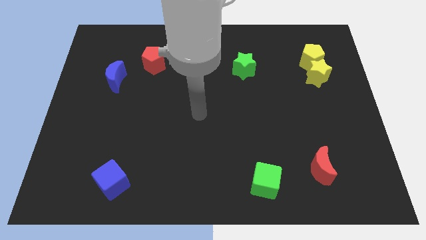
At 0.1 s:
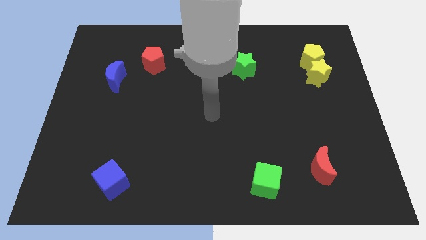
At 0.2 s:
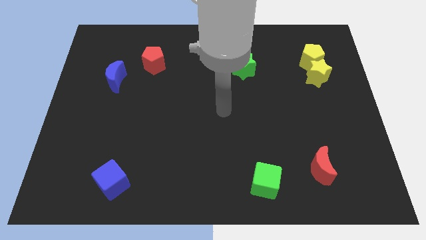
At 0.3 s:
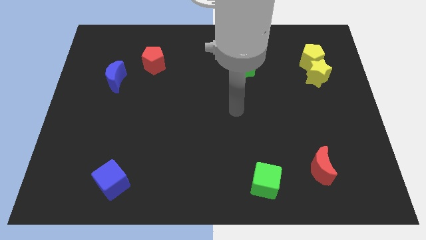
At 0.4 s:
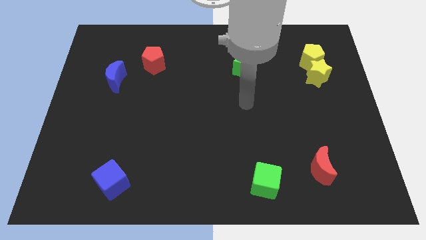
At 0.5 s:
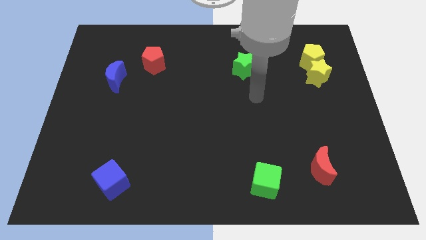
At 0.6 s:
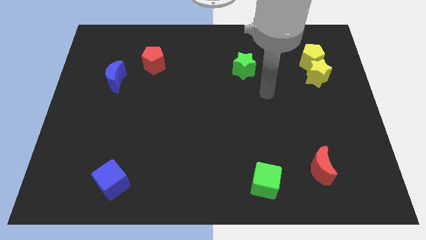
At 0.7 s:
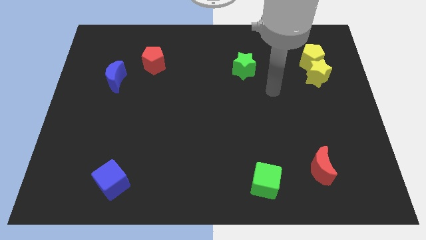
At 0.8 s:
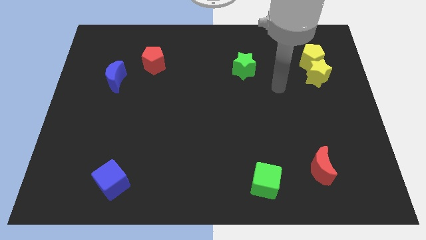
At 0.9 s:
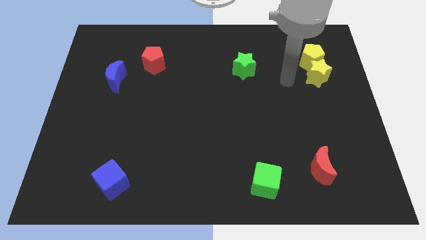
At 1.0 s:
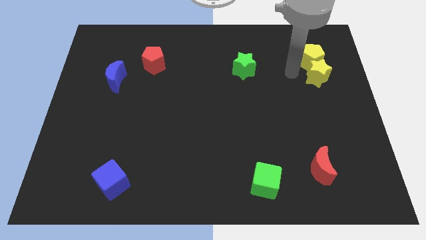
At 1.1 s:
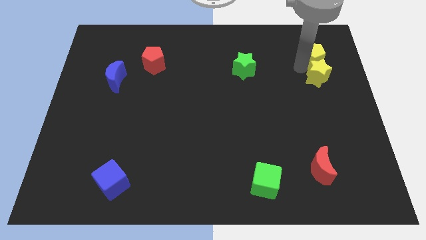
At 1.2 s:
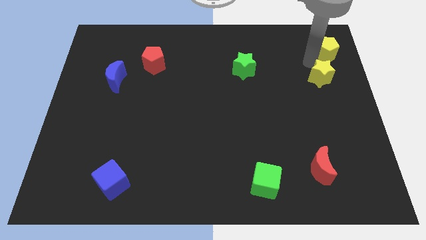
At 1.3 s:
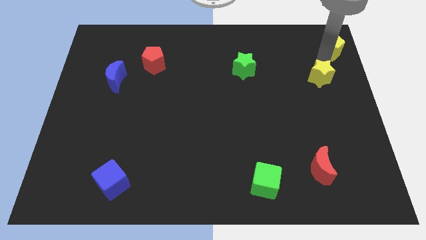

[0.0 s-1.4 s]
pull the yellow star apart from the yellow pentagon

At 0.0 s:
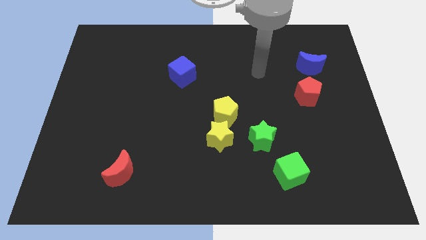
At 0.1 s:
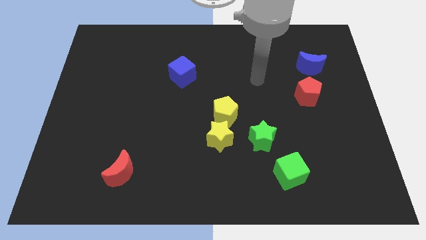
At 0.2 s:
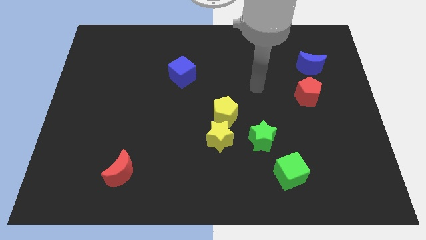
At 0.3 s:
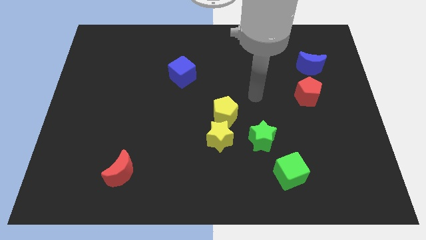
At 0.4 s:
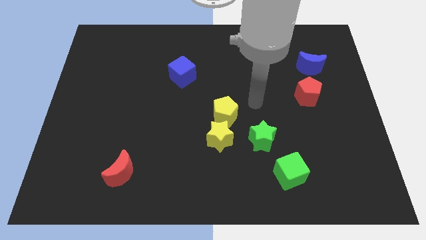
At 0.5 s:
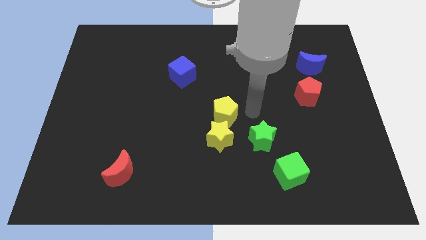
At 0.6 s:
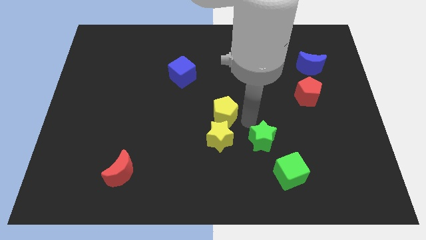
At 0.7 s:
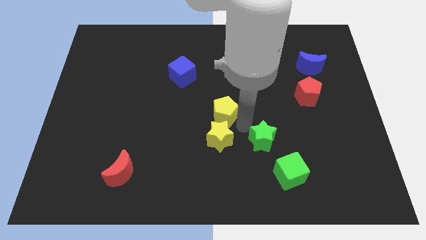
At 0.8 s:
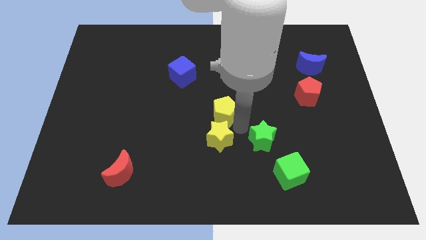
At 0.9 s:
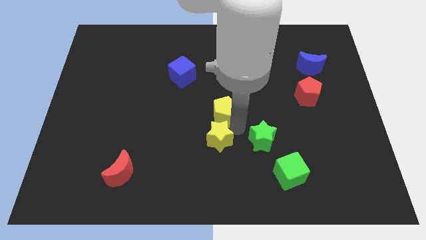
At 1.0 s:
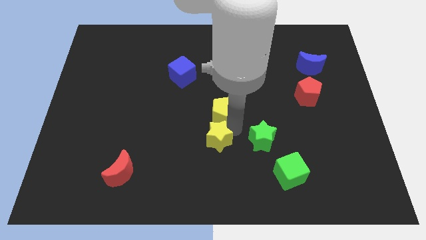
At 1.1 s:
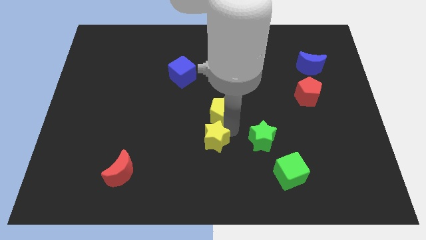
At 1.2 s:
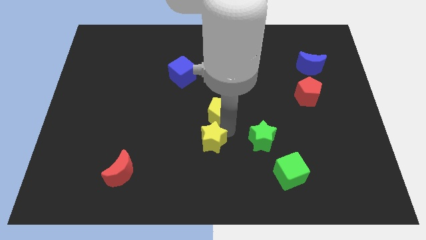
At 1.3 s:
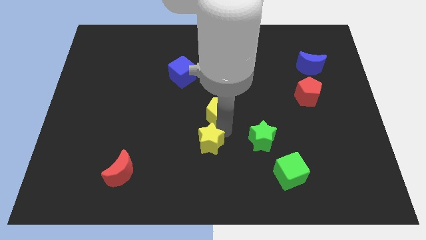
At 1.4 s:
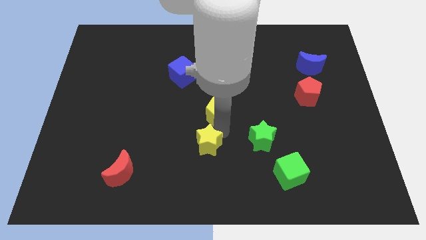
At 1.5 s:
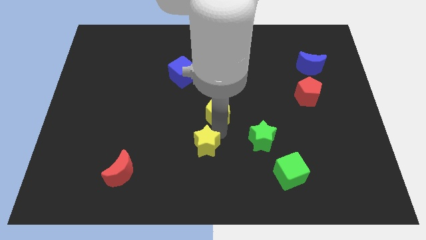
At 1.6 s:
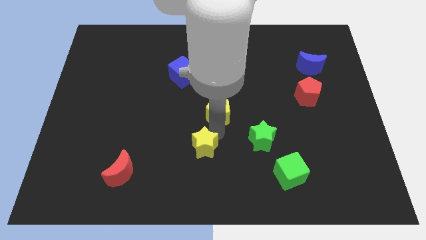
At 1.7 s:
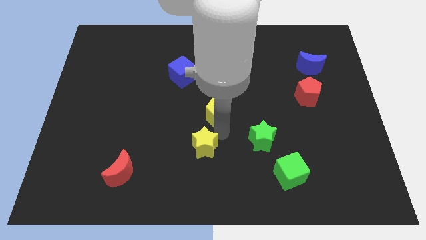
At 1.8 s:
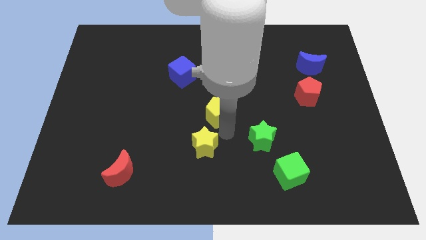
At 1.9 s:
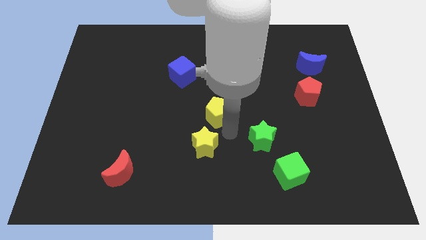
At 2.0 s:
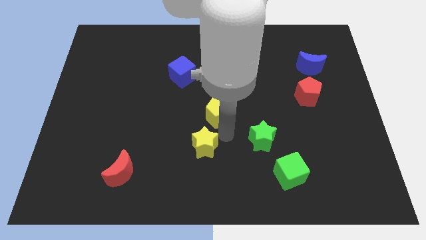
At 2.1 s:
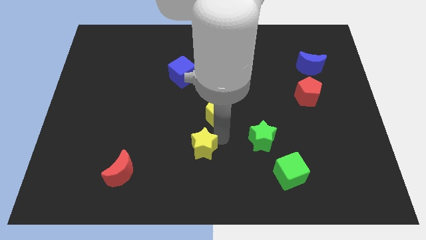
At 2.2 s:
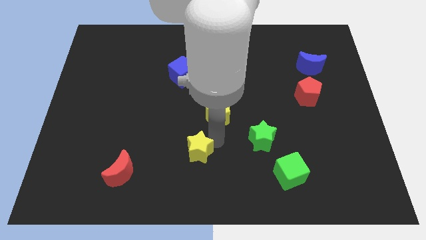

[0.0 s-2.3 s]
separate the yellow star from the yellow pentagon and green star

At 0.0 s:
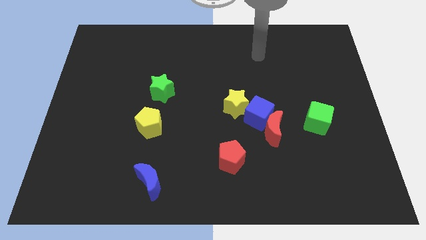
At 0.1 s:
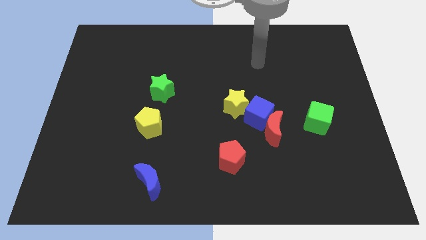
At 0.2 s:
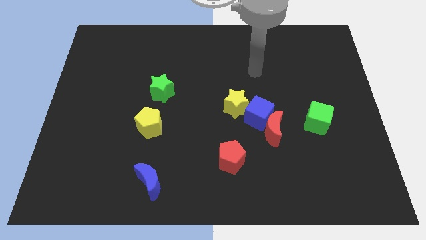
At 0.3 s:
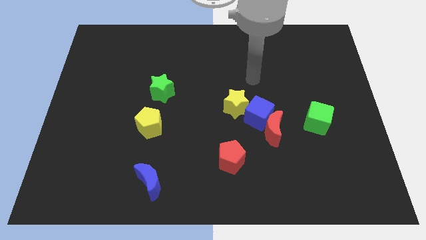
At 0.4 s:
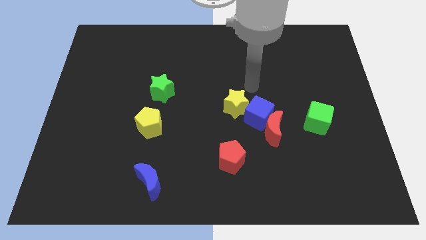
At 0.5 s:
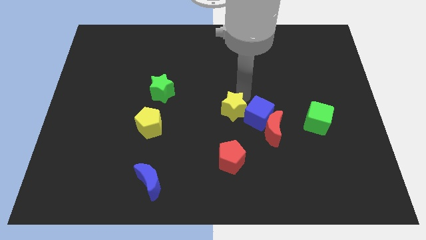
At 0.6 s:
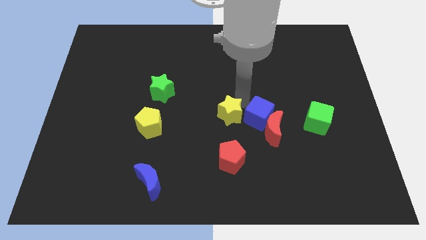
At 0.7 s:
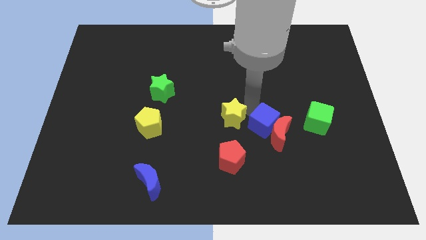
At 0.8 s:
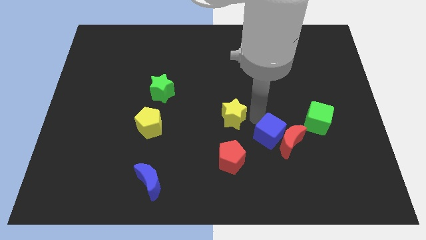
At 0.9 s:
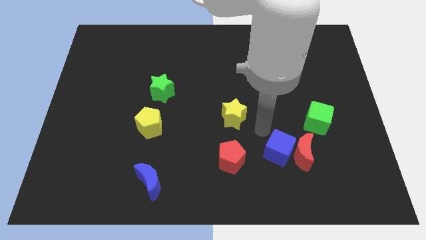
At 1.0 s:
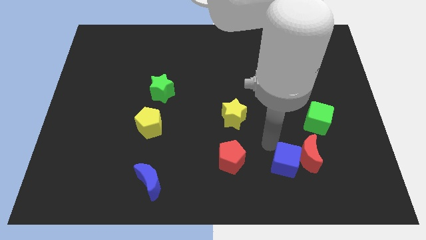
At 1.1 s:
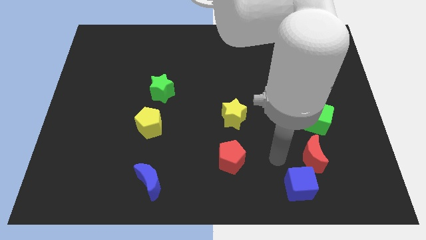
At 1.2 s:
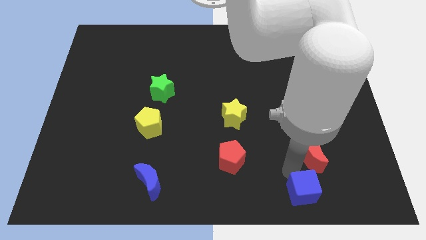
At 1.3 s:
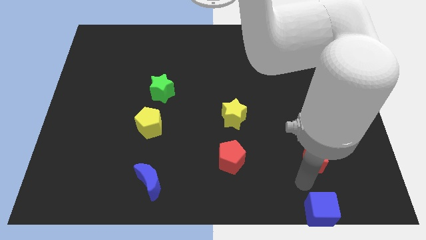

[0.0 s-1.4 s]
pull the red moon apart from the blue cube

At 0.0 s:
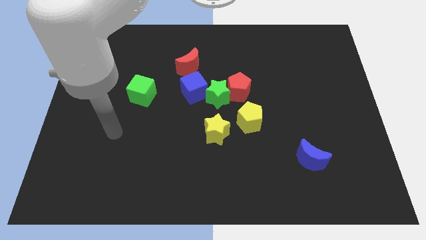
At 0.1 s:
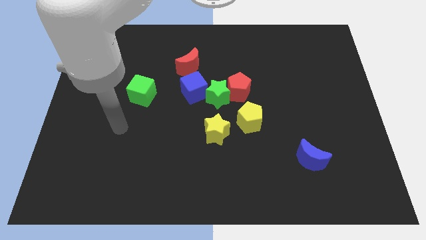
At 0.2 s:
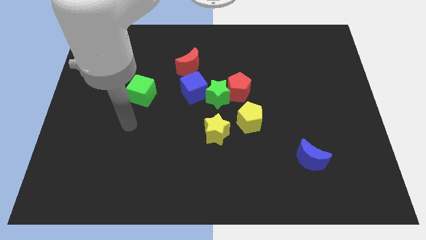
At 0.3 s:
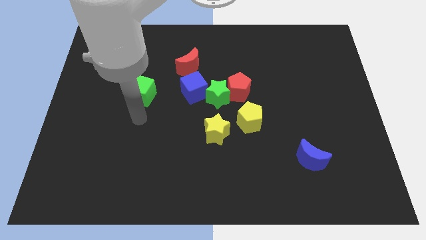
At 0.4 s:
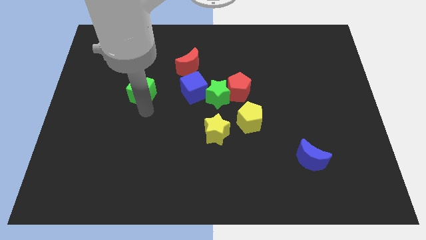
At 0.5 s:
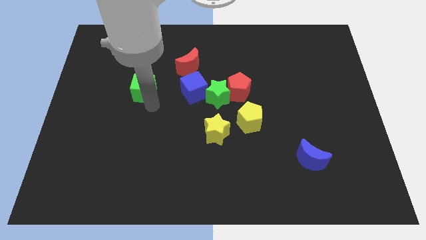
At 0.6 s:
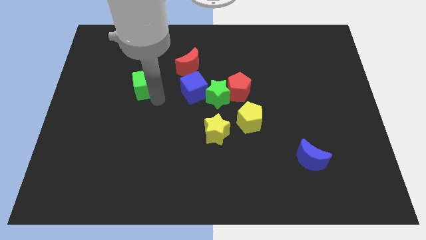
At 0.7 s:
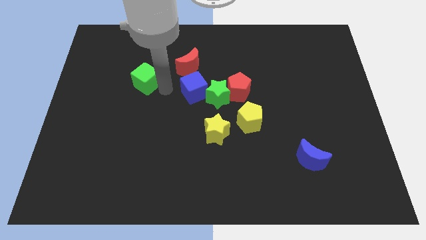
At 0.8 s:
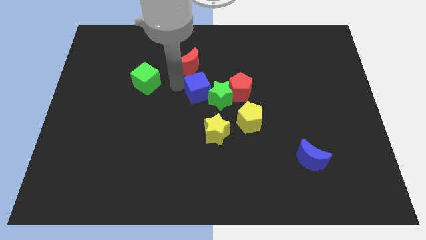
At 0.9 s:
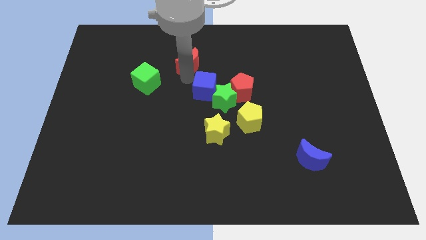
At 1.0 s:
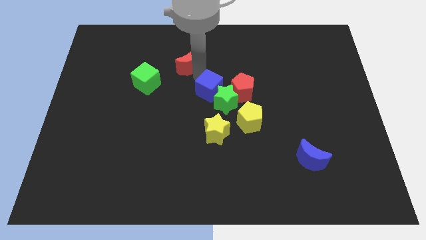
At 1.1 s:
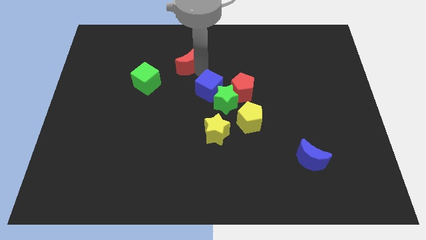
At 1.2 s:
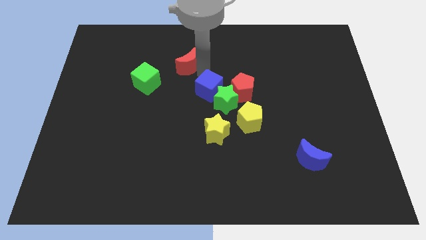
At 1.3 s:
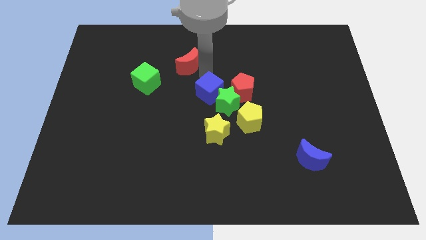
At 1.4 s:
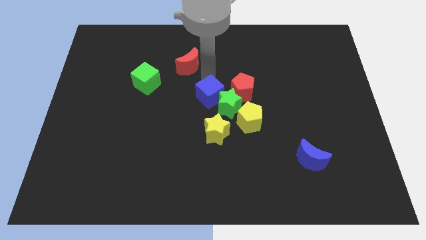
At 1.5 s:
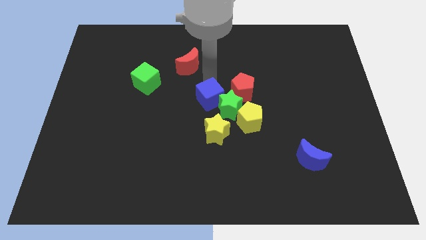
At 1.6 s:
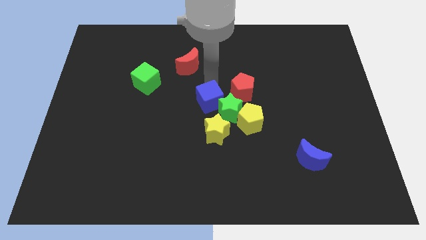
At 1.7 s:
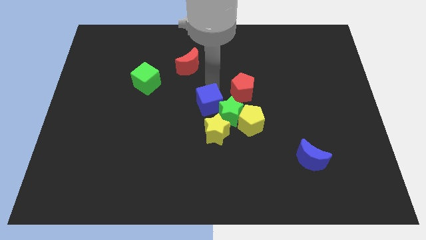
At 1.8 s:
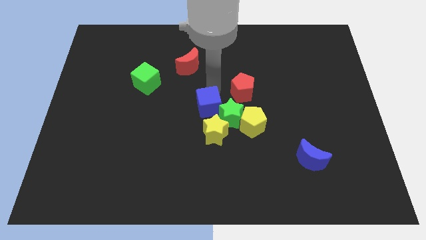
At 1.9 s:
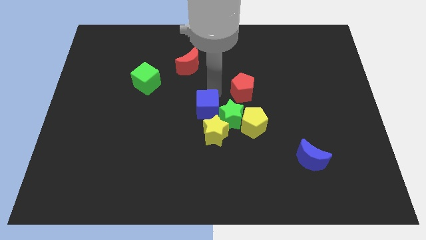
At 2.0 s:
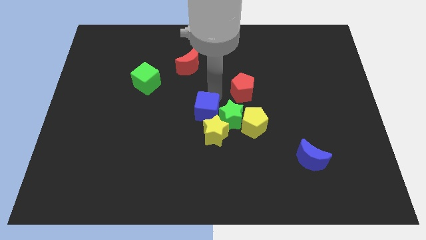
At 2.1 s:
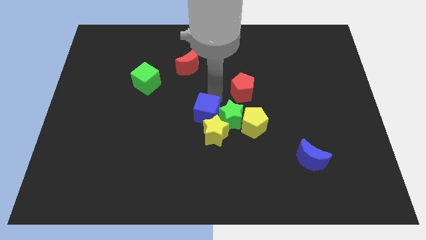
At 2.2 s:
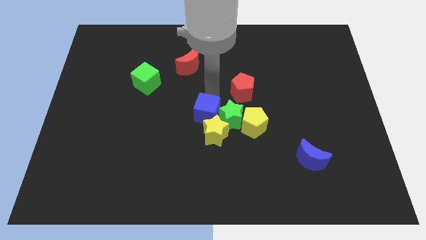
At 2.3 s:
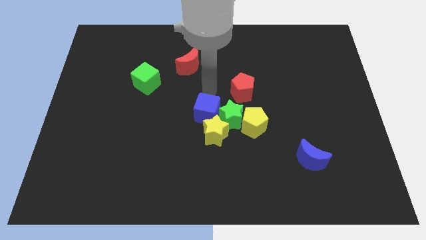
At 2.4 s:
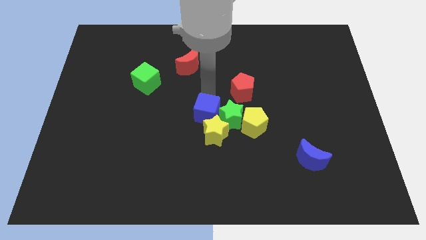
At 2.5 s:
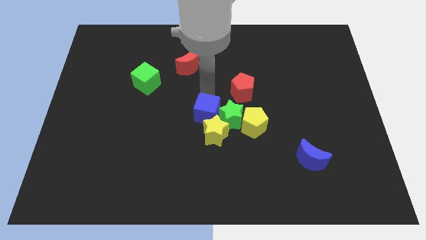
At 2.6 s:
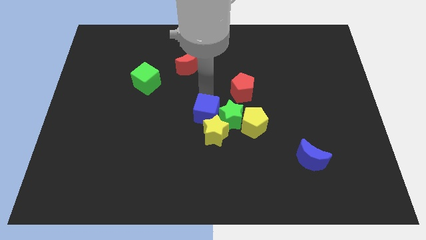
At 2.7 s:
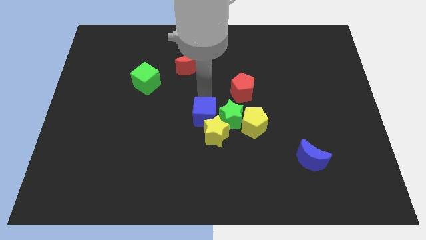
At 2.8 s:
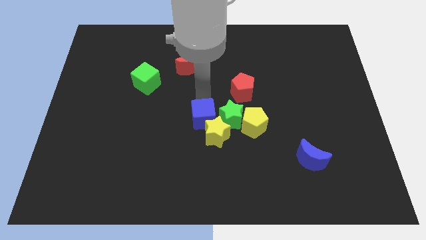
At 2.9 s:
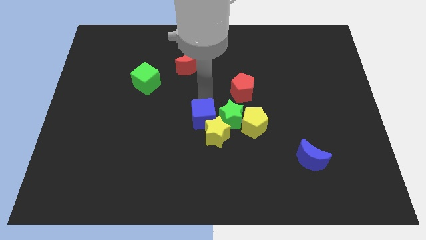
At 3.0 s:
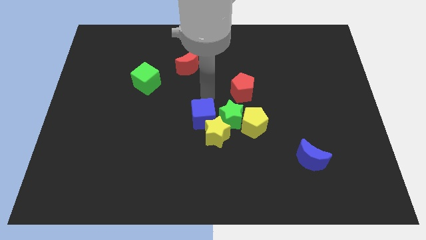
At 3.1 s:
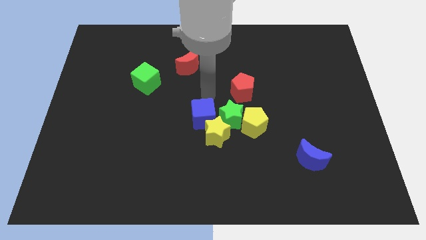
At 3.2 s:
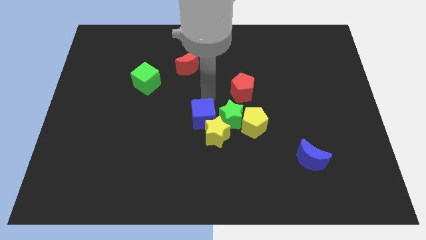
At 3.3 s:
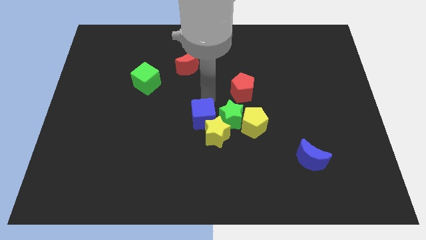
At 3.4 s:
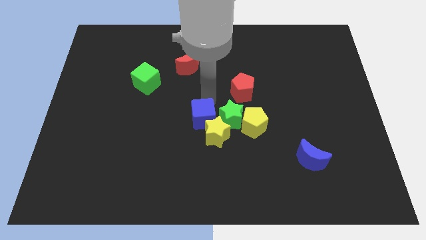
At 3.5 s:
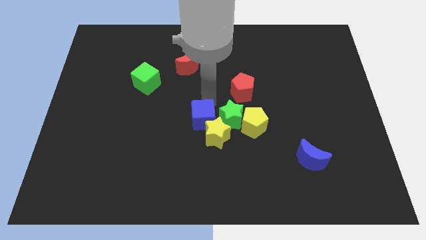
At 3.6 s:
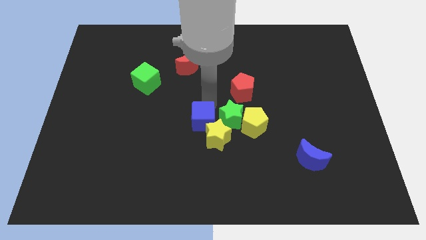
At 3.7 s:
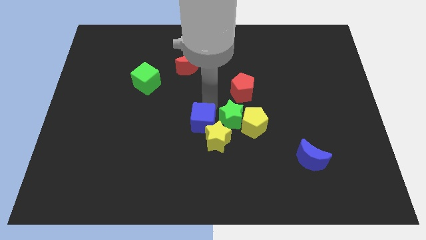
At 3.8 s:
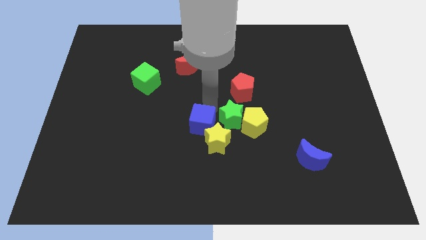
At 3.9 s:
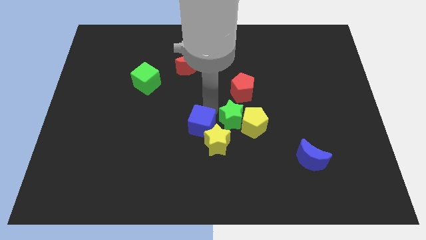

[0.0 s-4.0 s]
move the blue cube away from the green star and red moon

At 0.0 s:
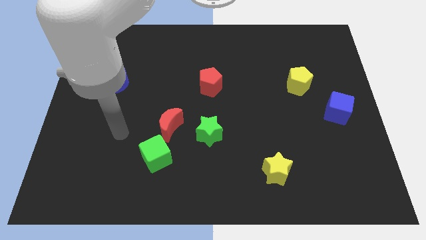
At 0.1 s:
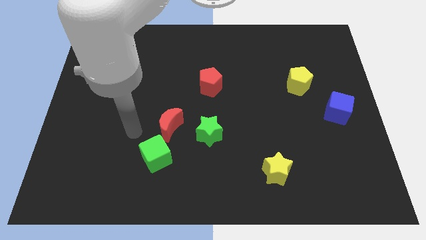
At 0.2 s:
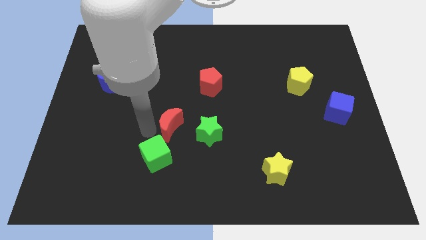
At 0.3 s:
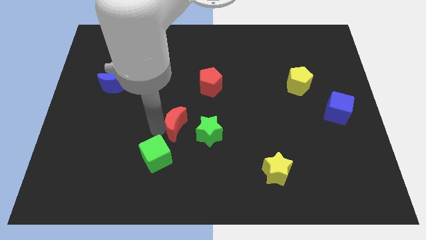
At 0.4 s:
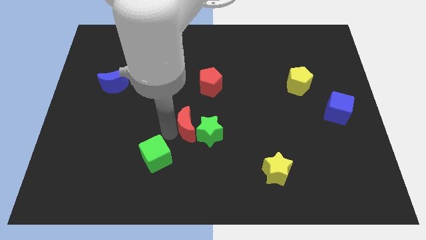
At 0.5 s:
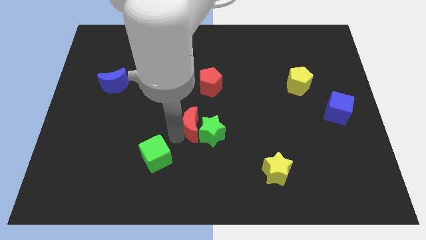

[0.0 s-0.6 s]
pull the green cube apart from the red moon
